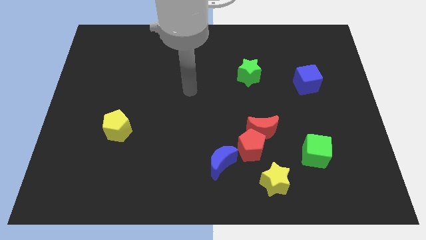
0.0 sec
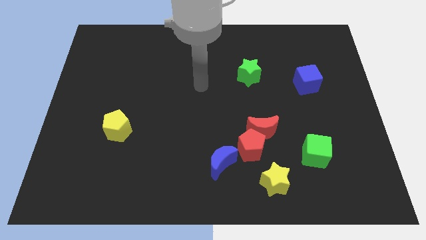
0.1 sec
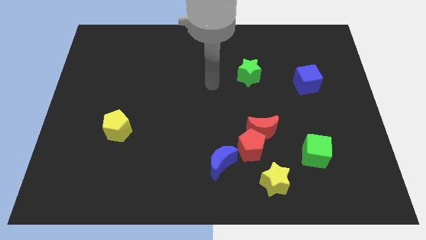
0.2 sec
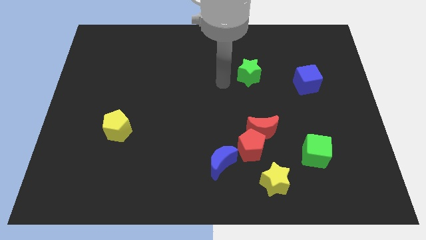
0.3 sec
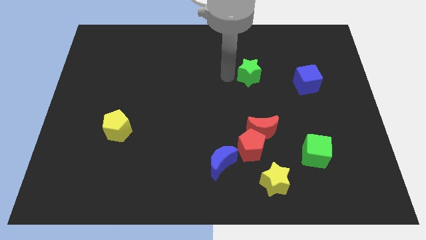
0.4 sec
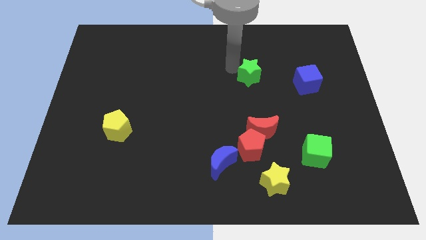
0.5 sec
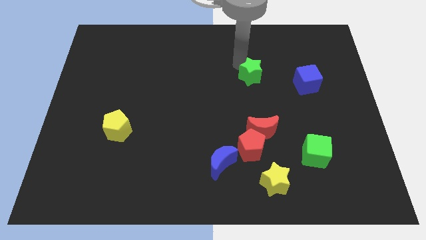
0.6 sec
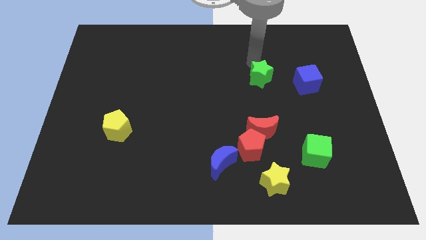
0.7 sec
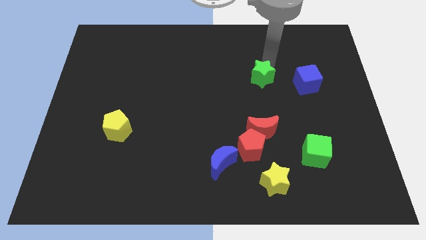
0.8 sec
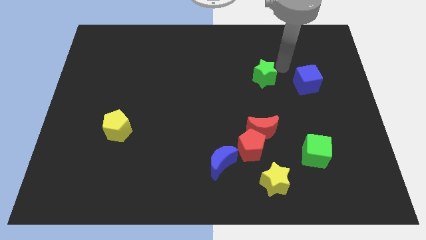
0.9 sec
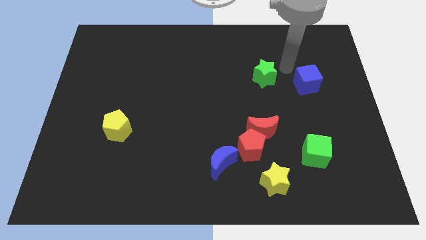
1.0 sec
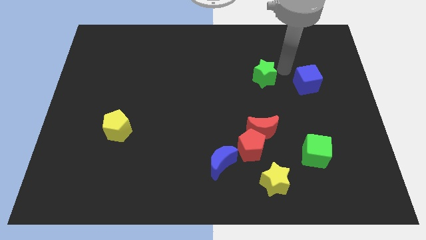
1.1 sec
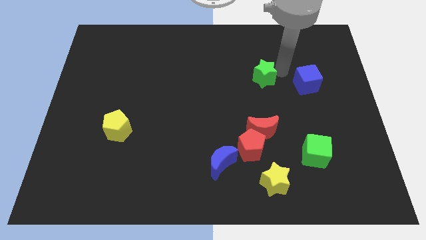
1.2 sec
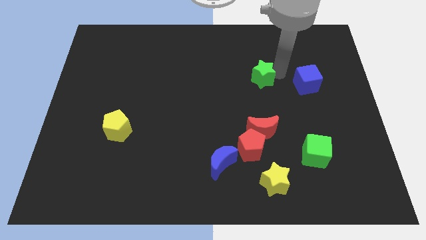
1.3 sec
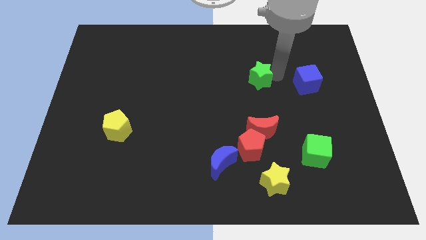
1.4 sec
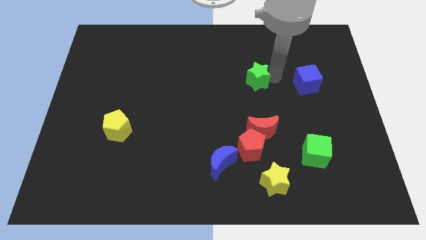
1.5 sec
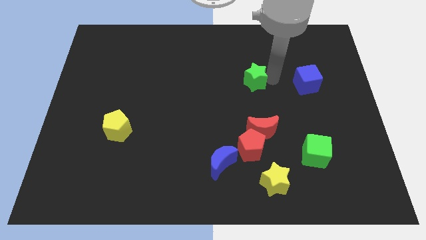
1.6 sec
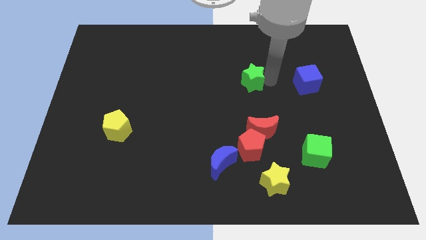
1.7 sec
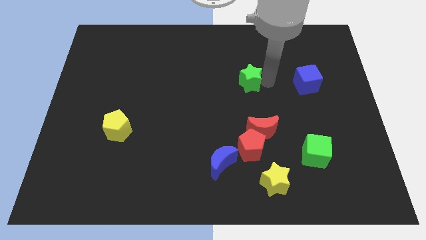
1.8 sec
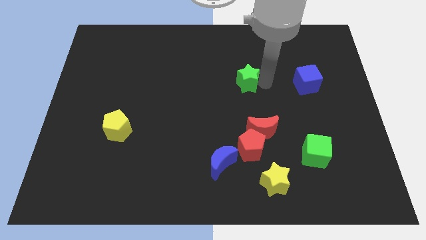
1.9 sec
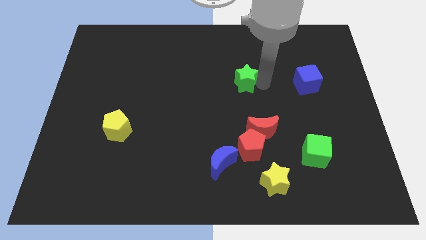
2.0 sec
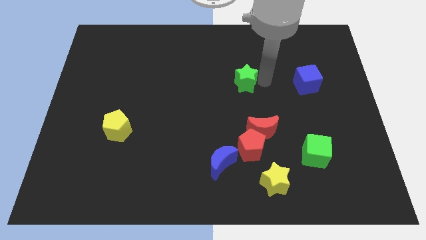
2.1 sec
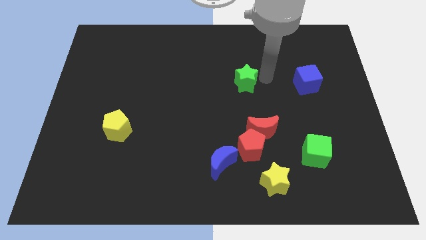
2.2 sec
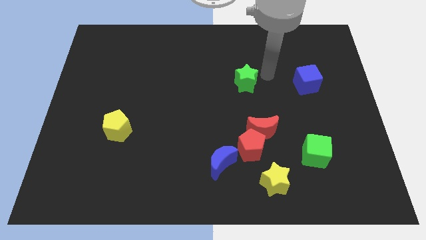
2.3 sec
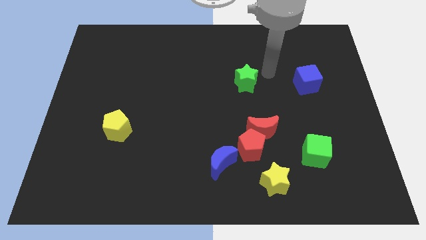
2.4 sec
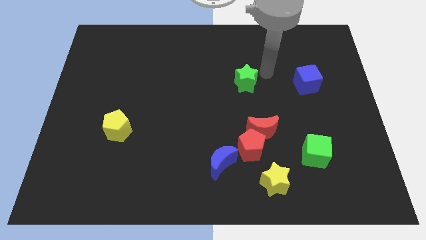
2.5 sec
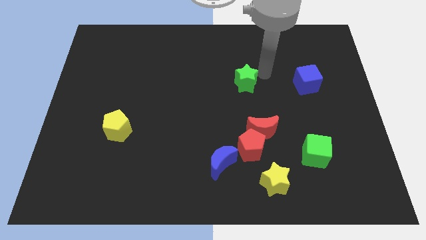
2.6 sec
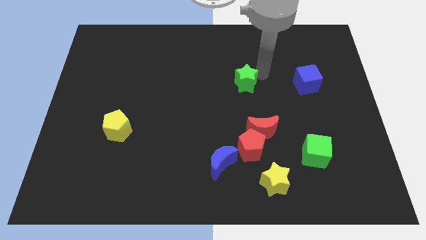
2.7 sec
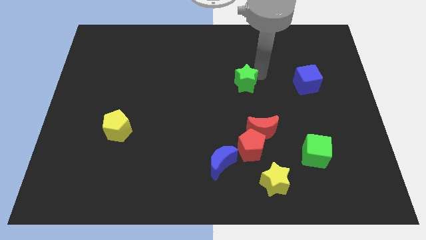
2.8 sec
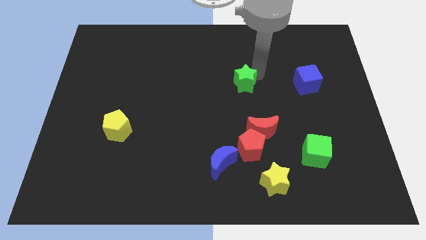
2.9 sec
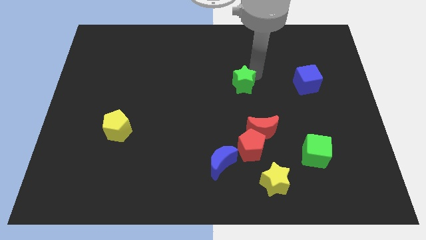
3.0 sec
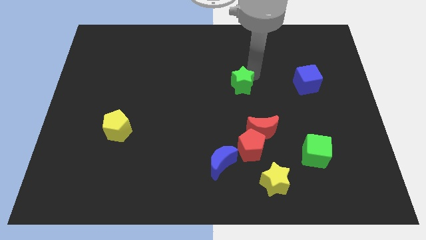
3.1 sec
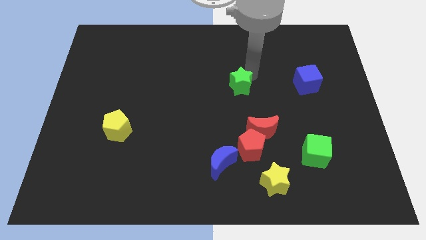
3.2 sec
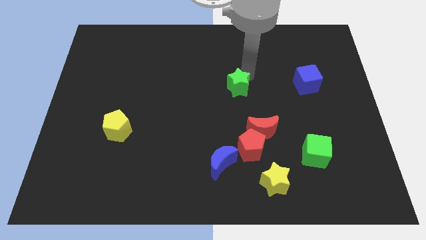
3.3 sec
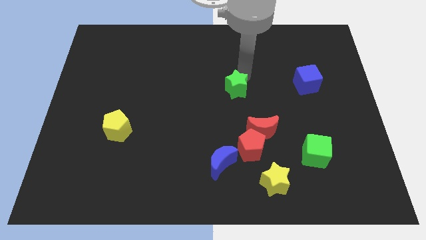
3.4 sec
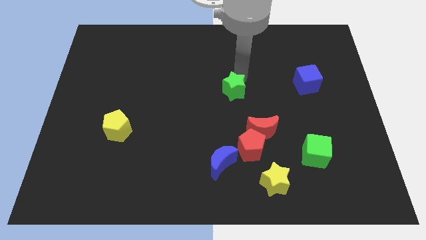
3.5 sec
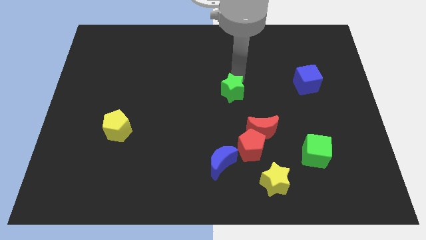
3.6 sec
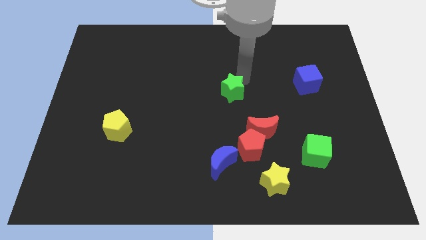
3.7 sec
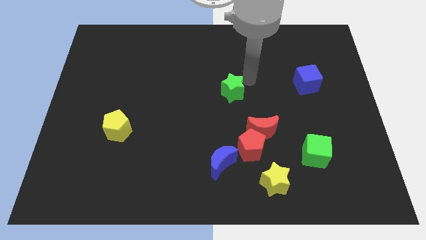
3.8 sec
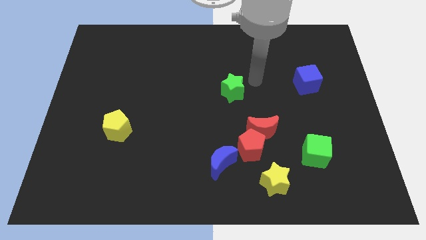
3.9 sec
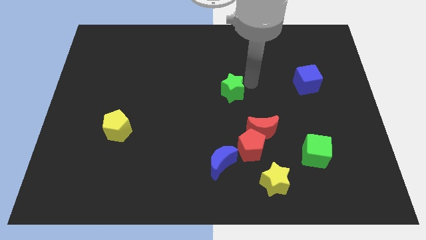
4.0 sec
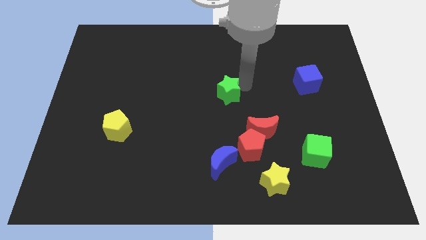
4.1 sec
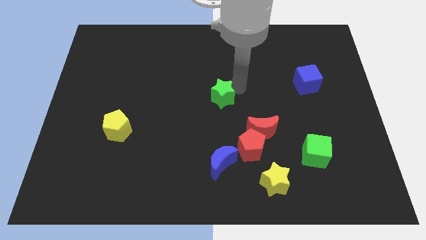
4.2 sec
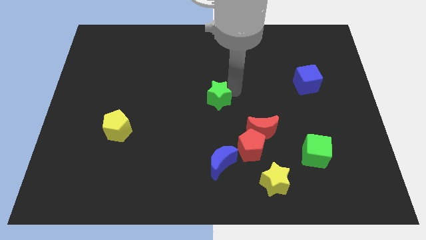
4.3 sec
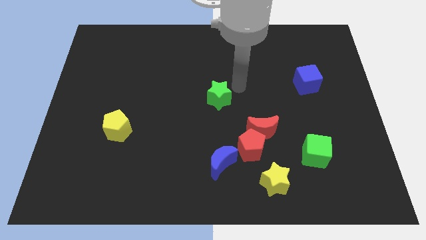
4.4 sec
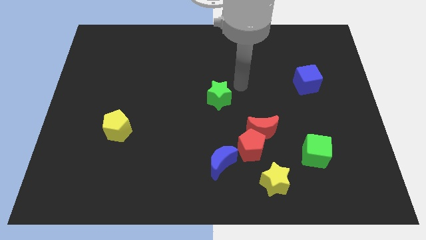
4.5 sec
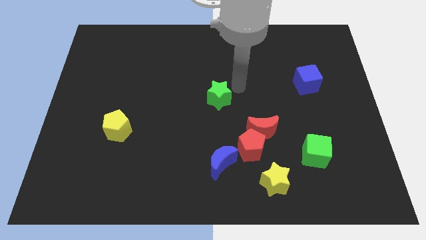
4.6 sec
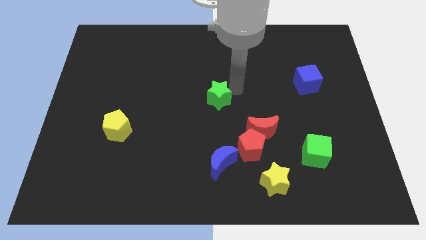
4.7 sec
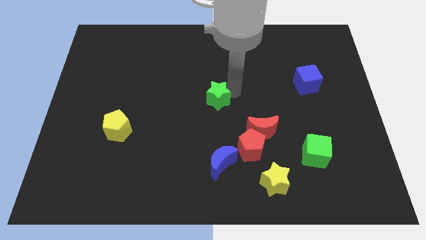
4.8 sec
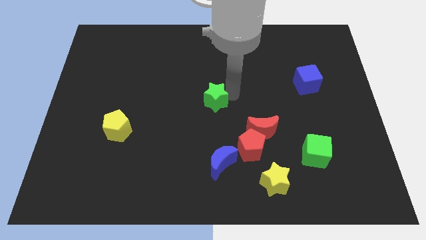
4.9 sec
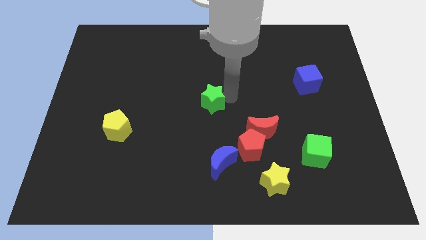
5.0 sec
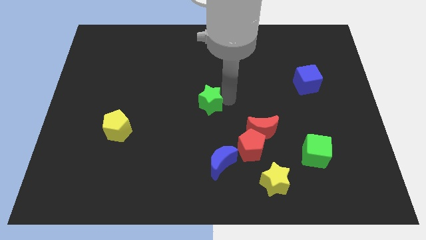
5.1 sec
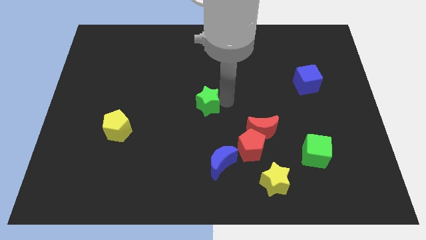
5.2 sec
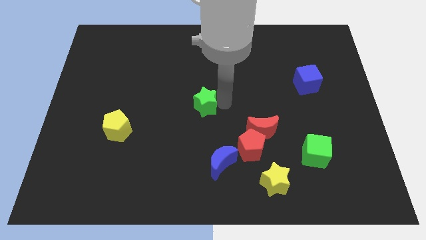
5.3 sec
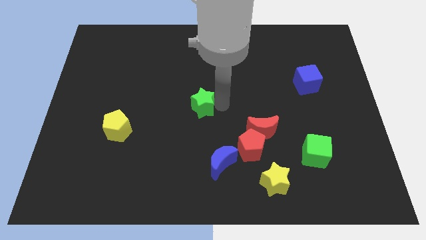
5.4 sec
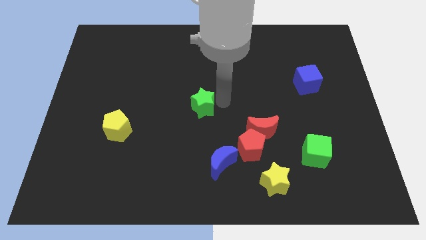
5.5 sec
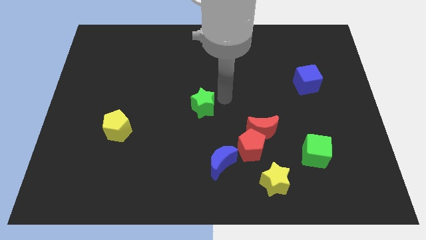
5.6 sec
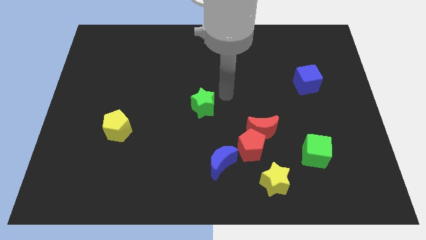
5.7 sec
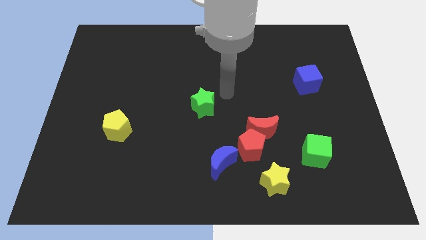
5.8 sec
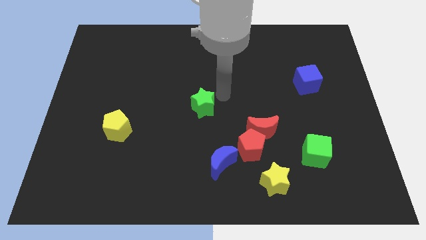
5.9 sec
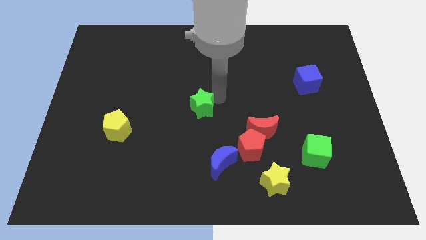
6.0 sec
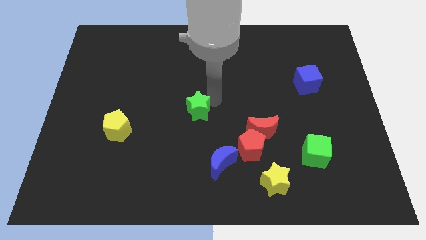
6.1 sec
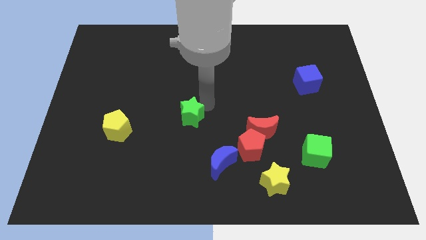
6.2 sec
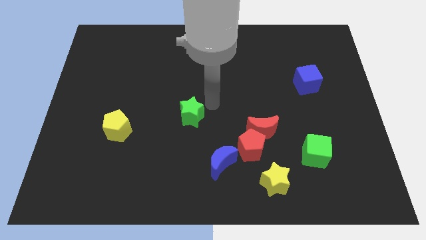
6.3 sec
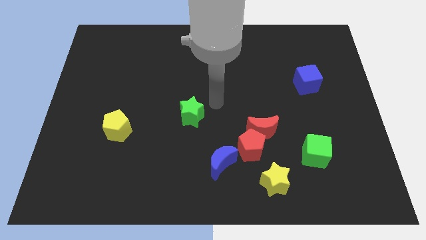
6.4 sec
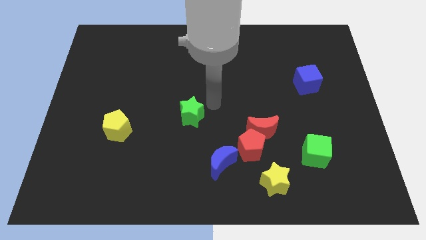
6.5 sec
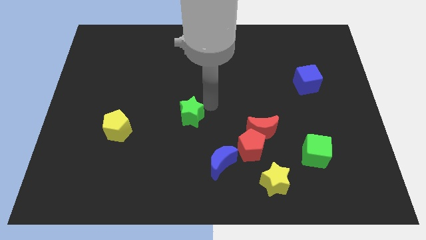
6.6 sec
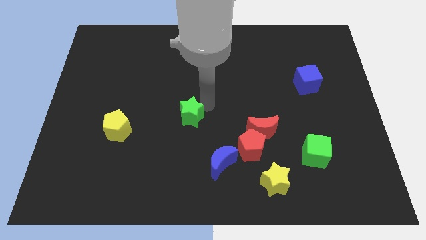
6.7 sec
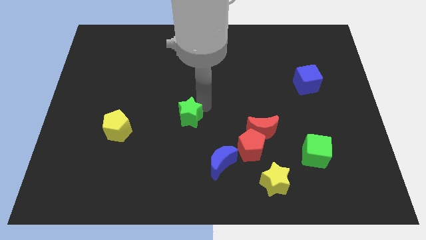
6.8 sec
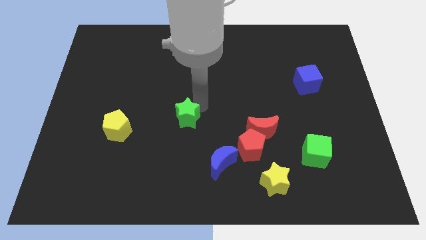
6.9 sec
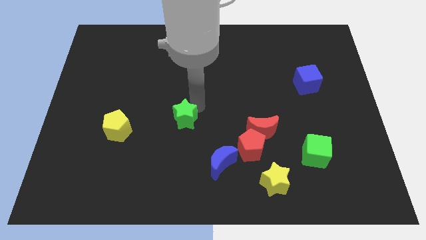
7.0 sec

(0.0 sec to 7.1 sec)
put the green star right of the yellow pentagon
